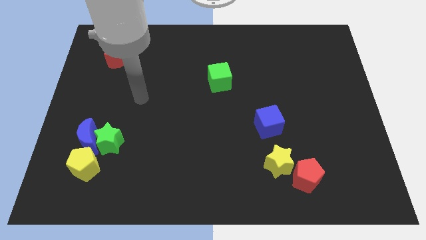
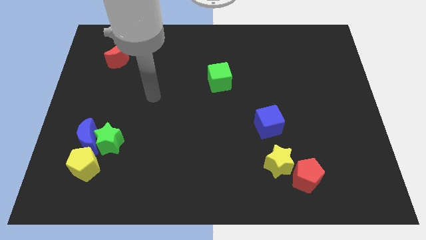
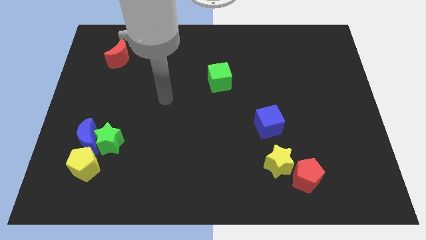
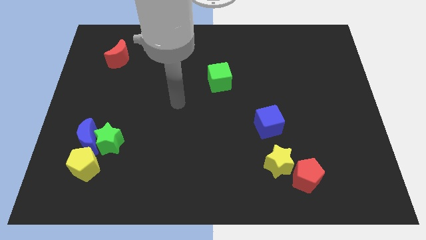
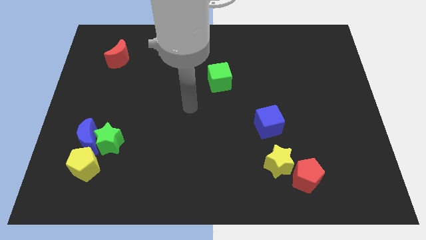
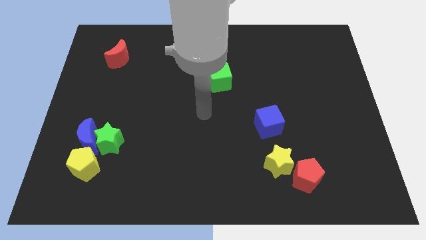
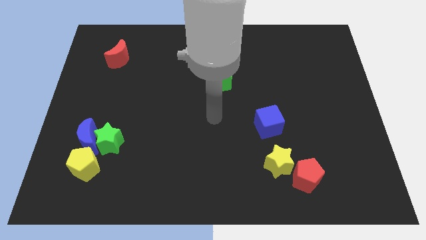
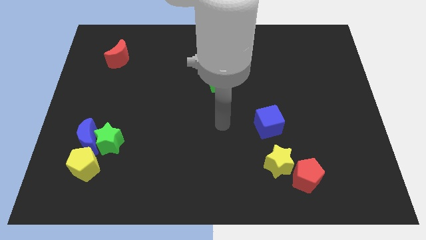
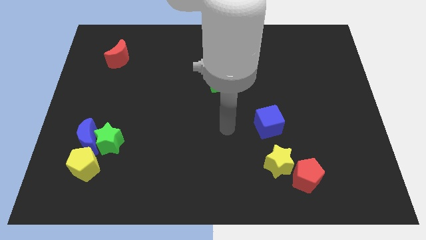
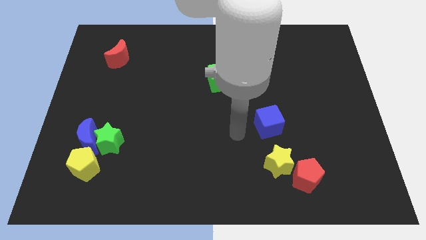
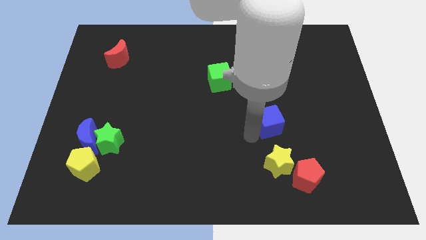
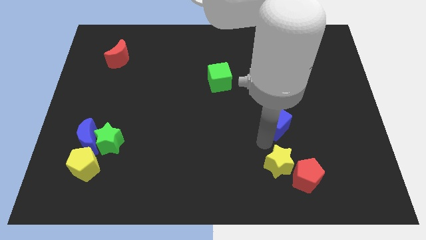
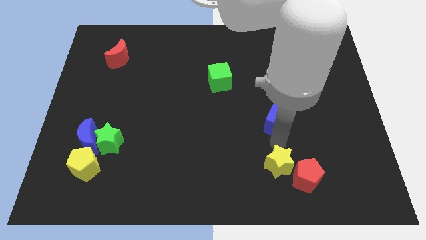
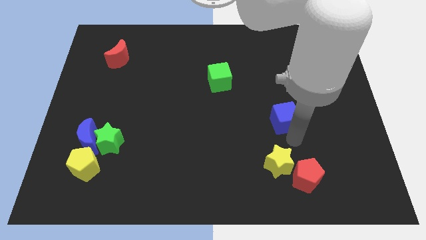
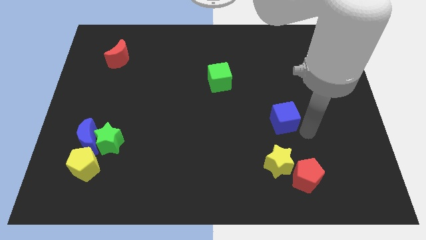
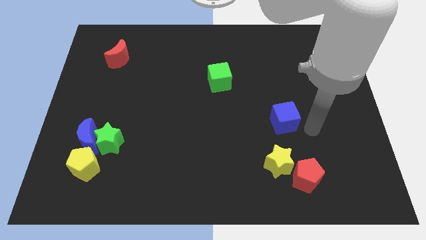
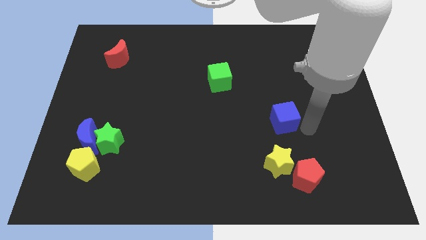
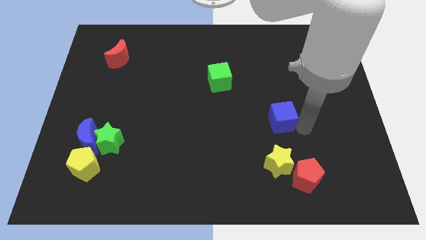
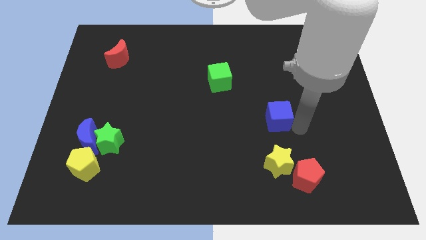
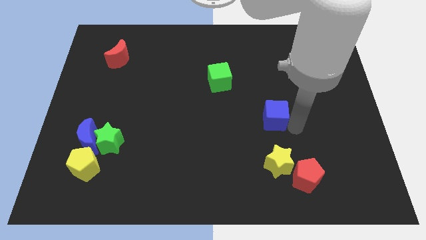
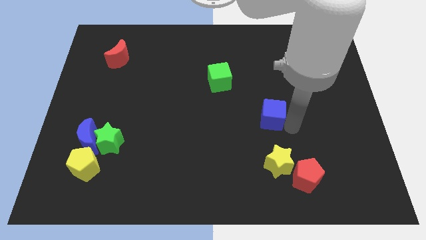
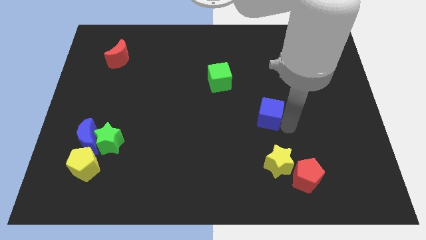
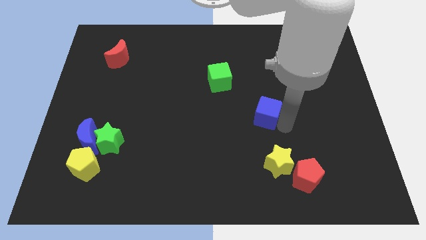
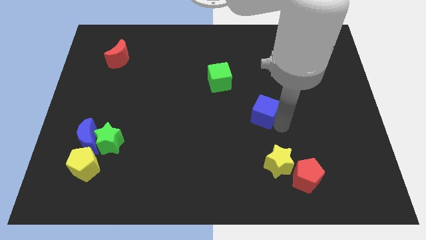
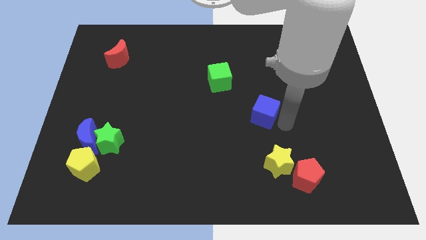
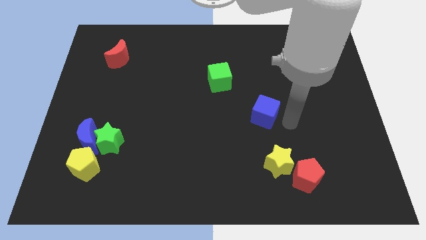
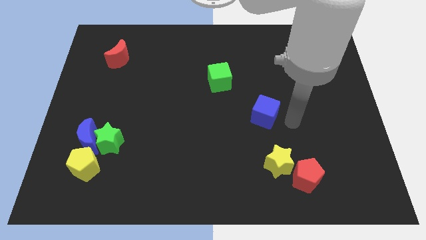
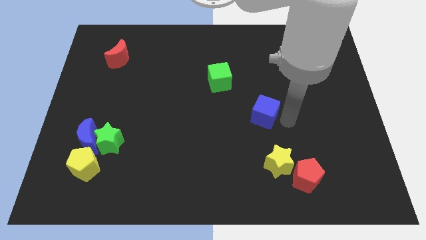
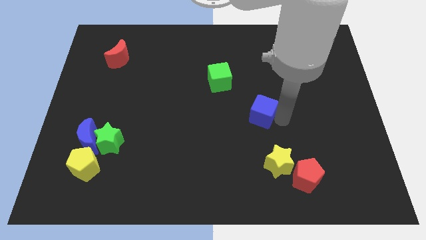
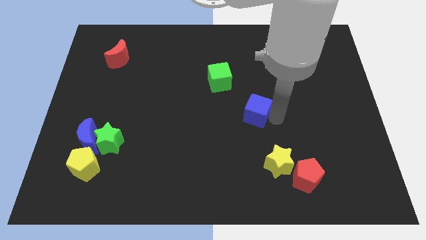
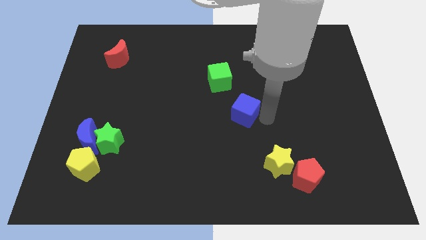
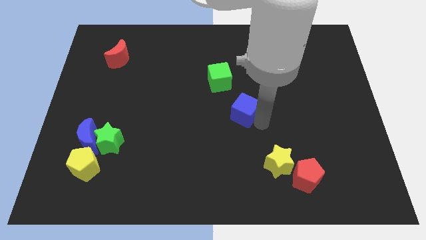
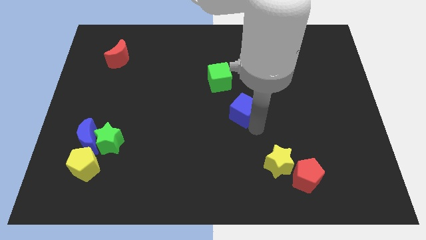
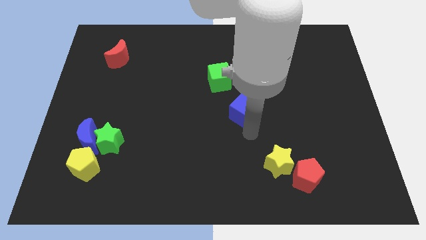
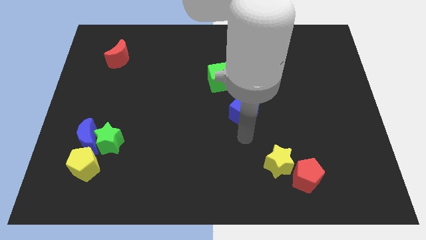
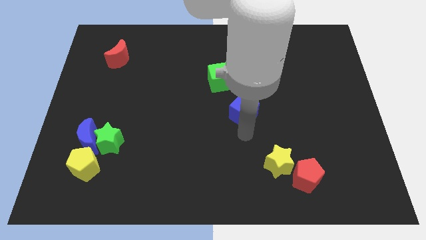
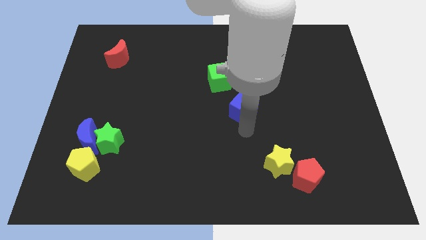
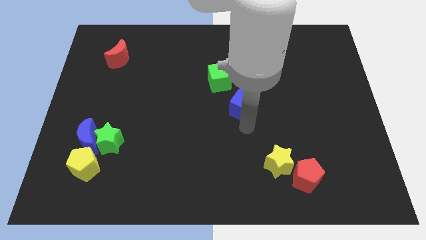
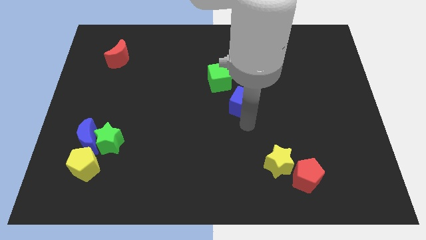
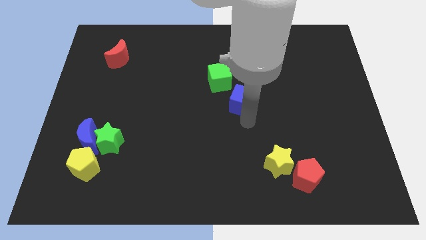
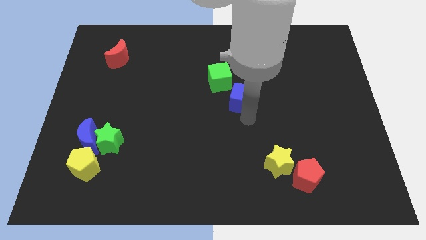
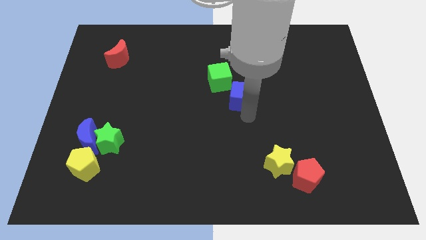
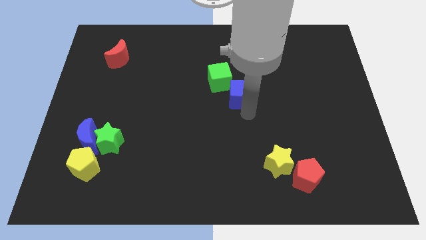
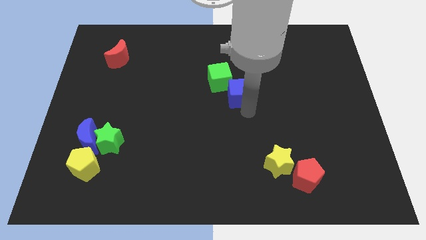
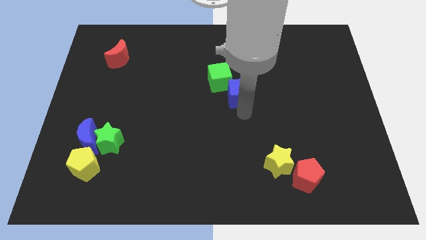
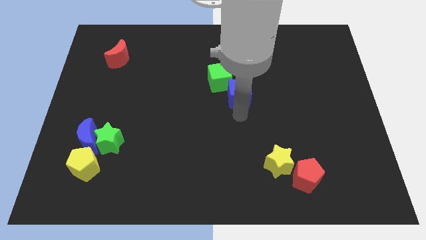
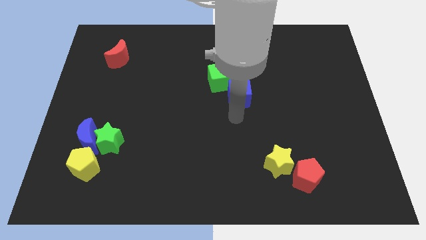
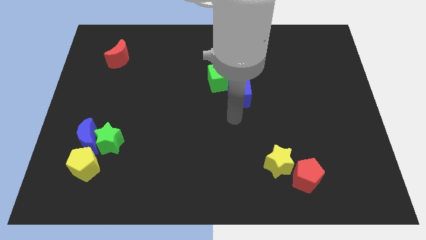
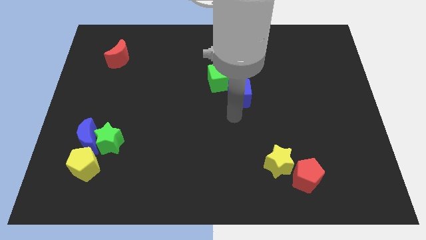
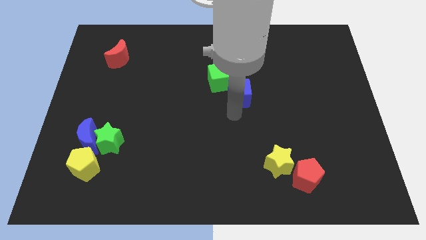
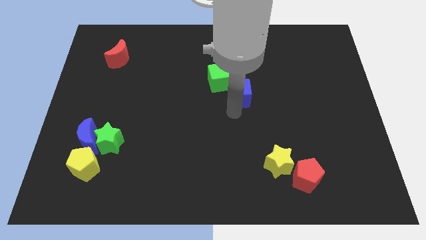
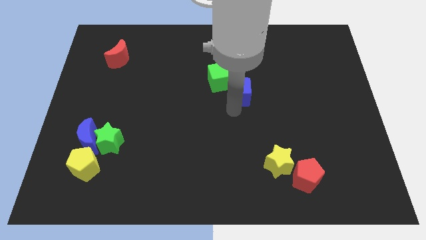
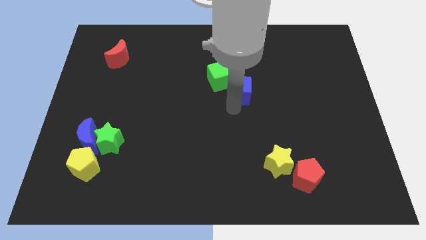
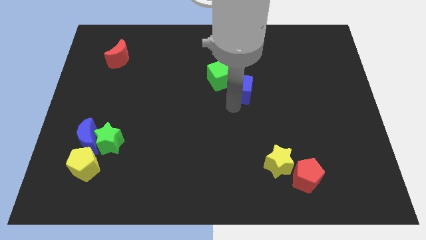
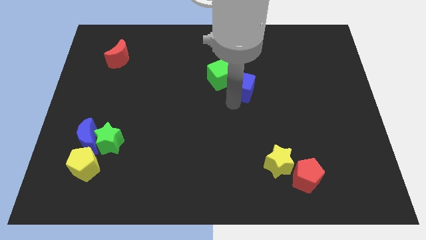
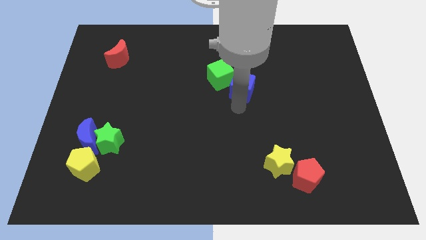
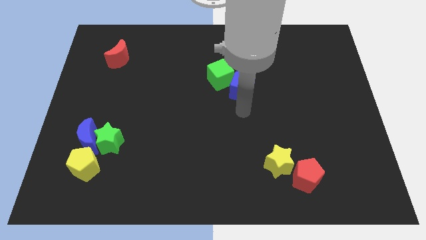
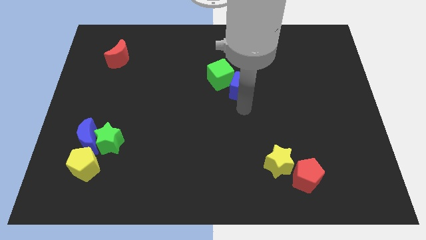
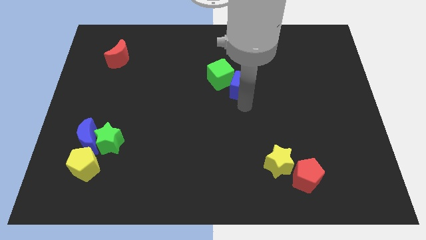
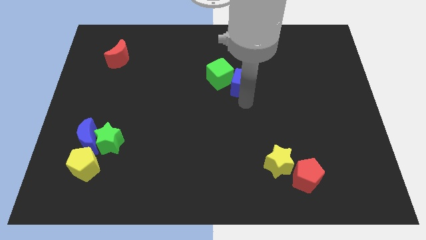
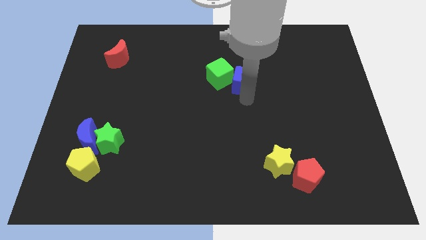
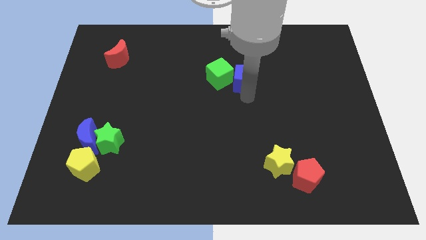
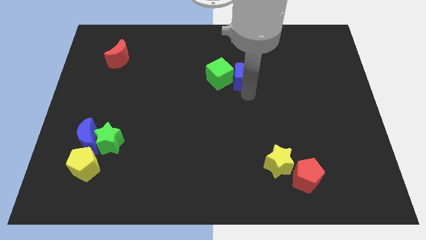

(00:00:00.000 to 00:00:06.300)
move the blue cube diagonally up and to the right of the green cube

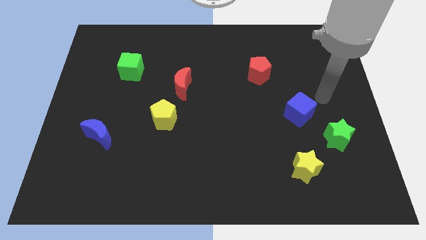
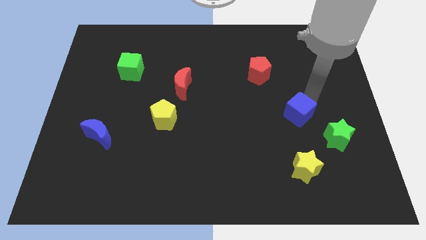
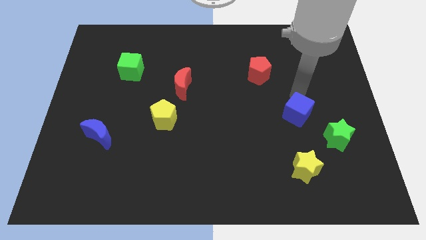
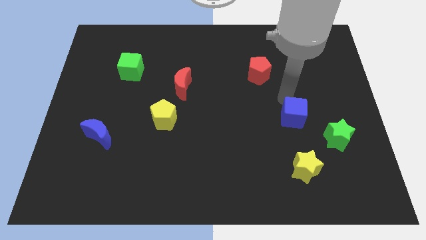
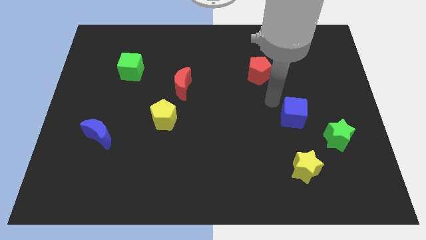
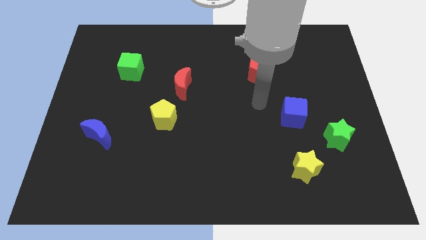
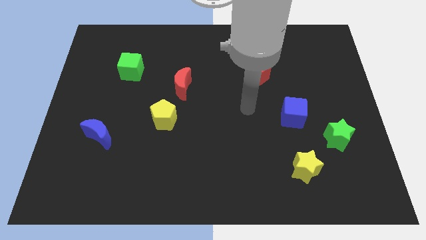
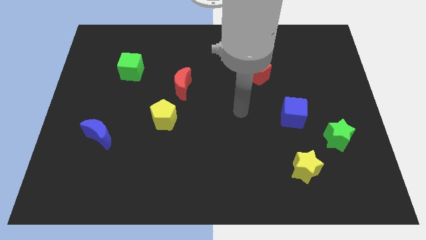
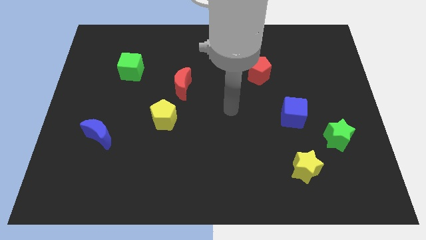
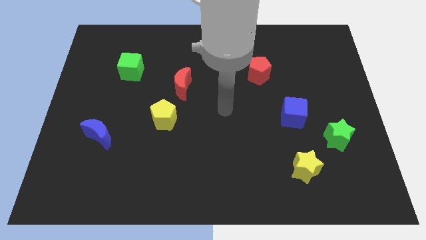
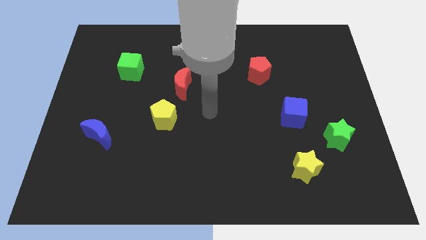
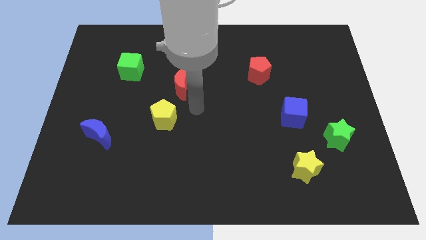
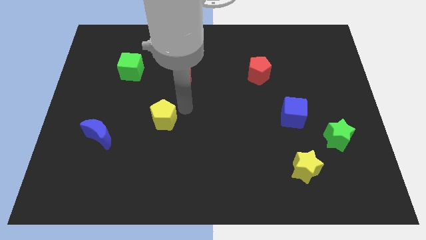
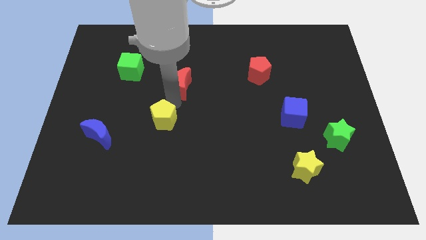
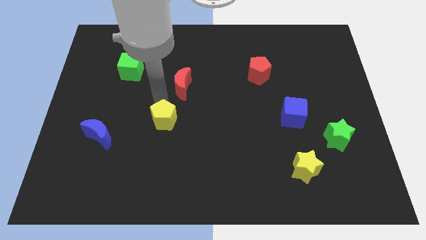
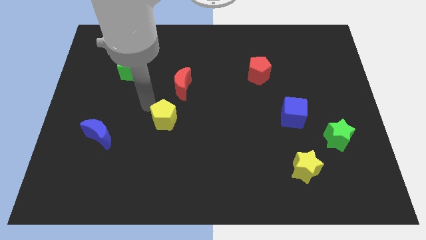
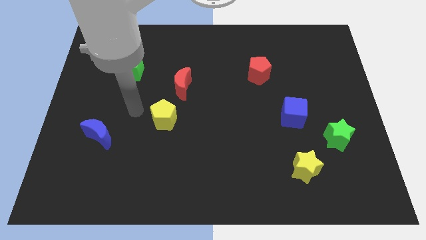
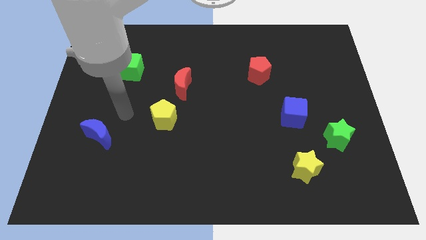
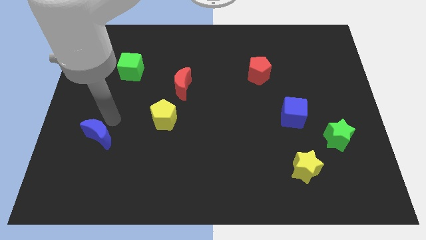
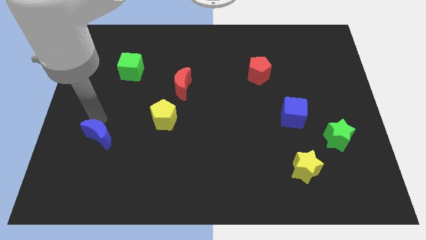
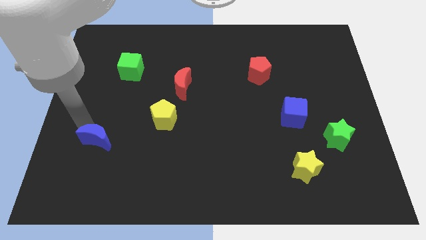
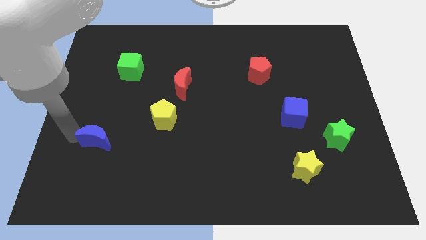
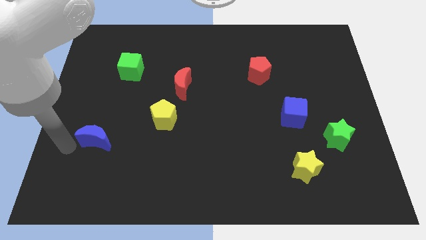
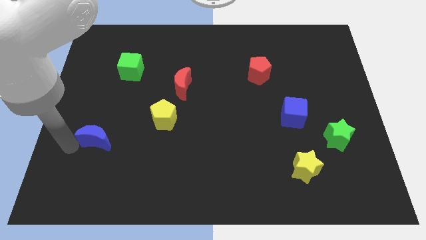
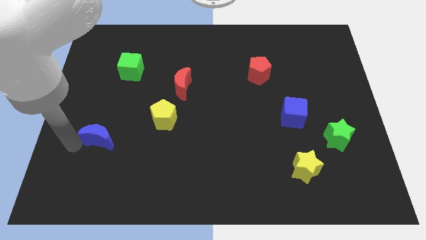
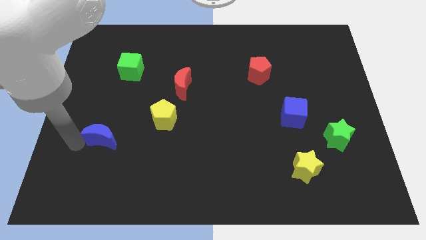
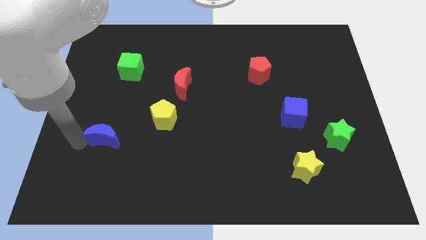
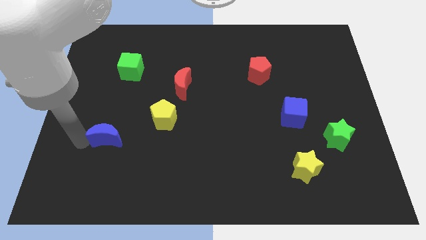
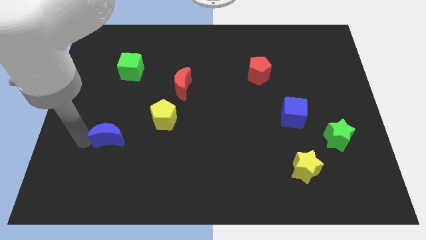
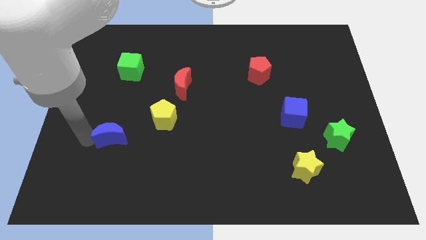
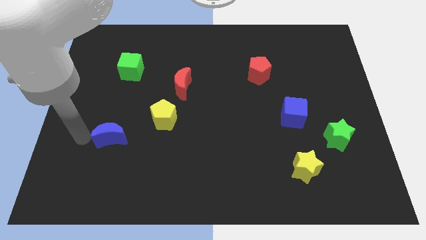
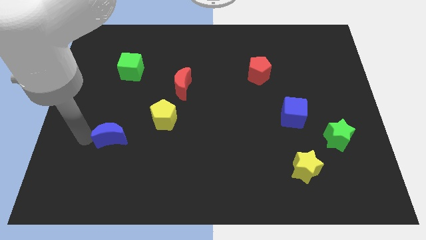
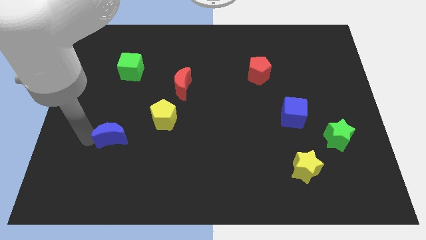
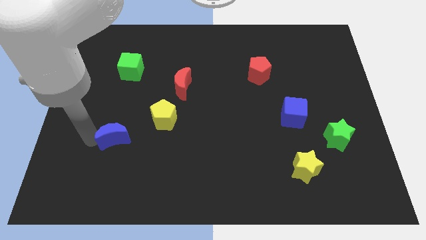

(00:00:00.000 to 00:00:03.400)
slide the blue moon to the bottom left of the yellow pentagon
